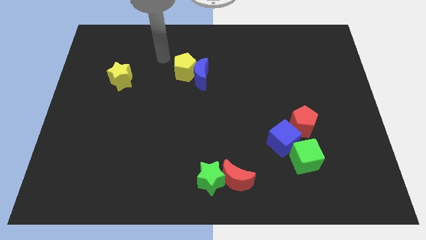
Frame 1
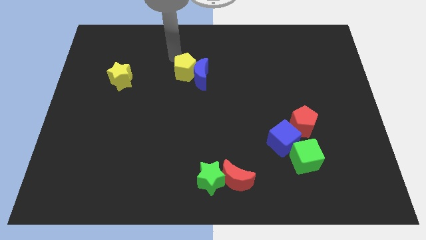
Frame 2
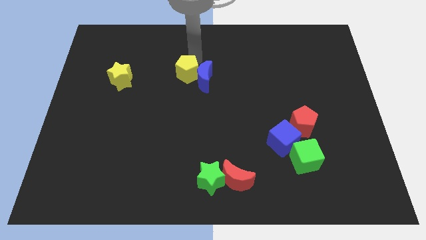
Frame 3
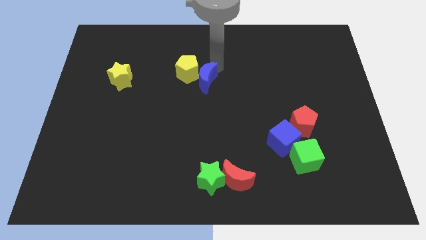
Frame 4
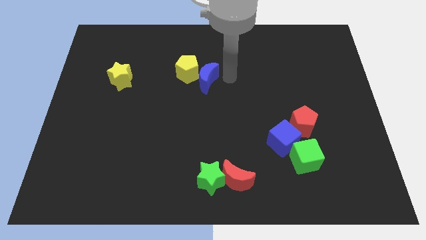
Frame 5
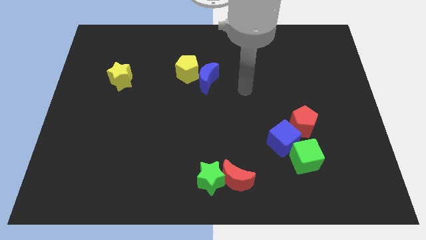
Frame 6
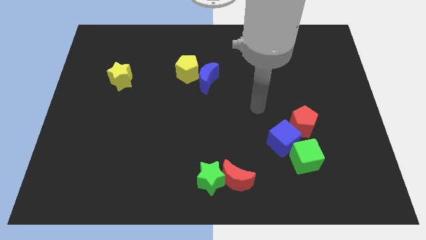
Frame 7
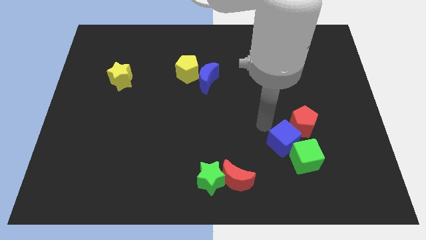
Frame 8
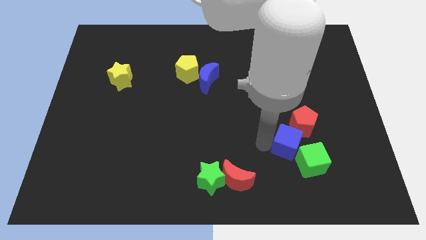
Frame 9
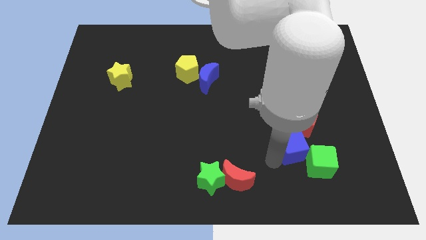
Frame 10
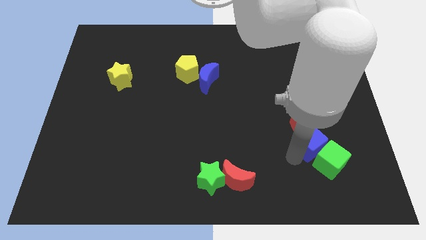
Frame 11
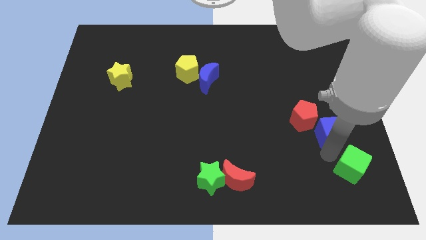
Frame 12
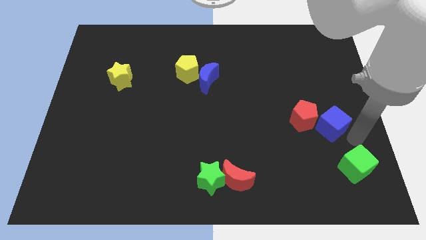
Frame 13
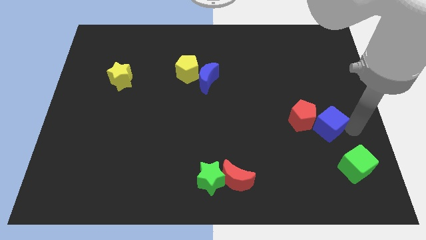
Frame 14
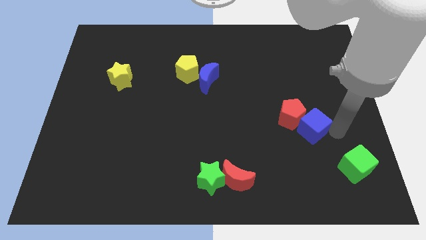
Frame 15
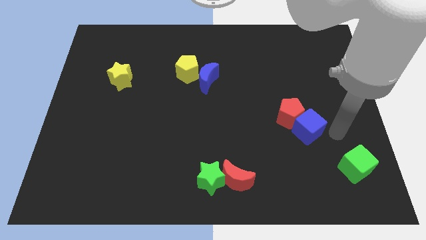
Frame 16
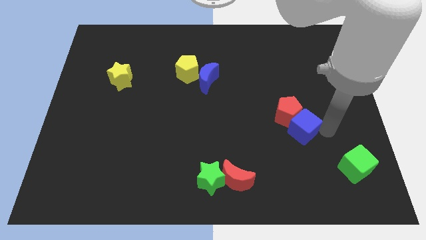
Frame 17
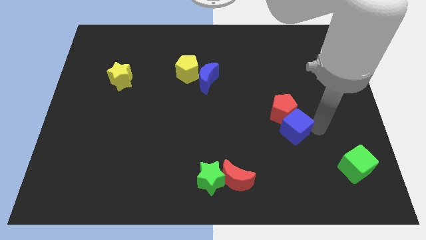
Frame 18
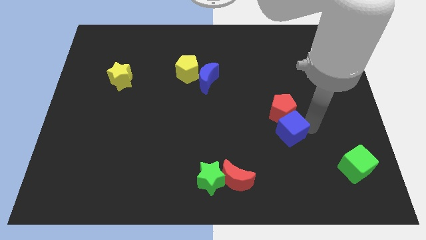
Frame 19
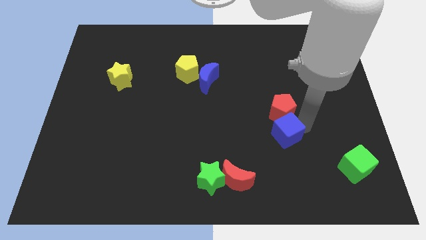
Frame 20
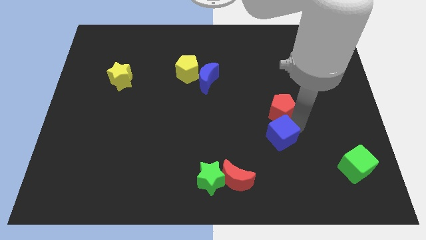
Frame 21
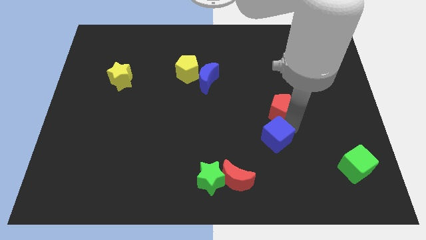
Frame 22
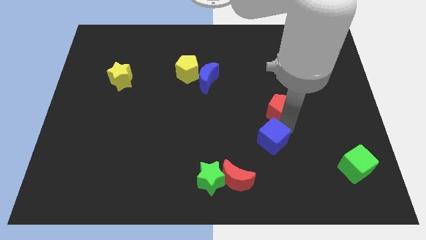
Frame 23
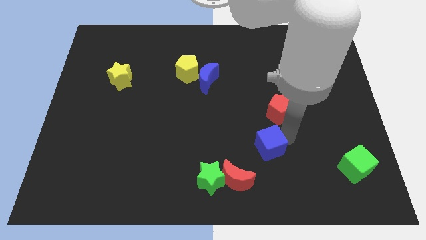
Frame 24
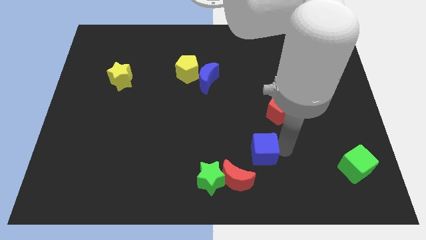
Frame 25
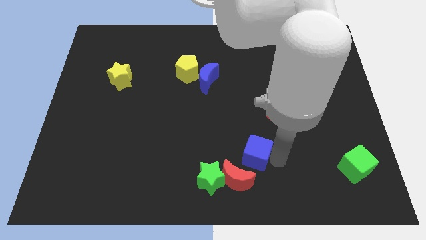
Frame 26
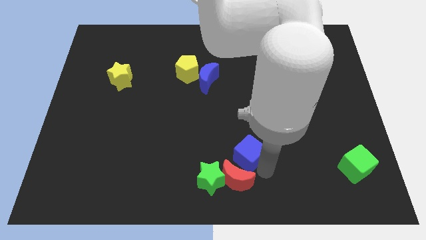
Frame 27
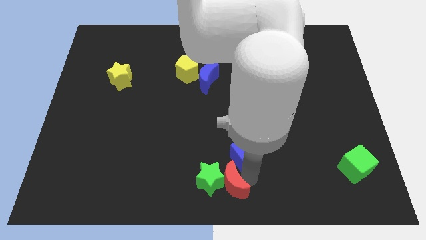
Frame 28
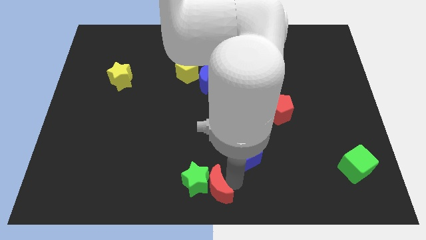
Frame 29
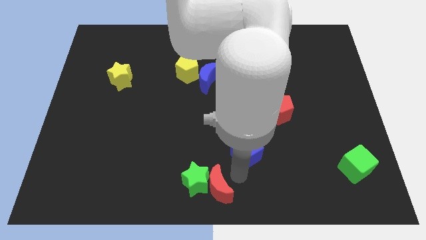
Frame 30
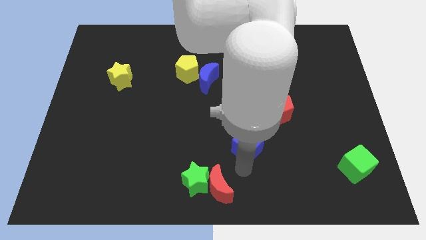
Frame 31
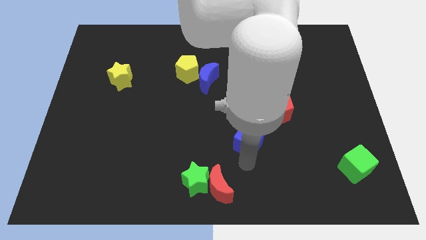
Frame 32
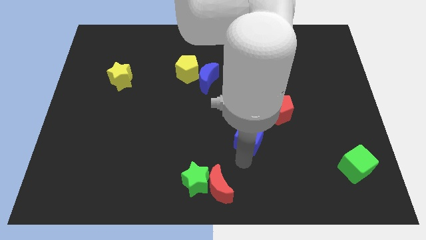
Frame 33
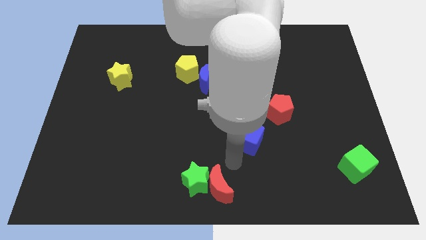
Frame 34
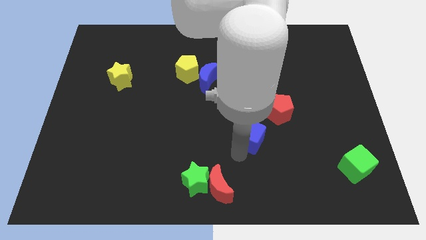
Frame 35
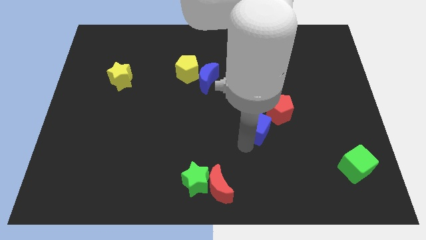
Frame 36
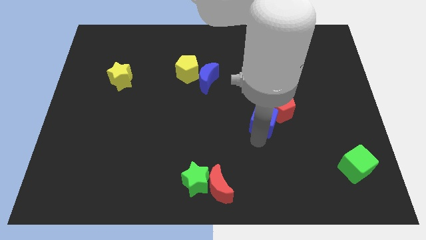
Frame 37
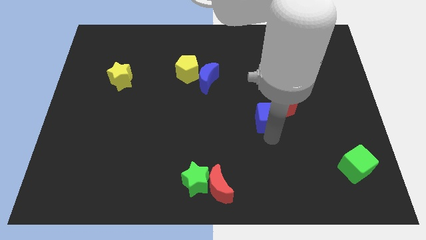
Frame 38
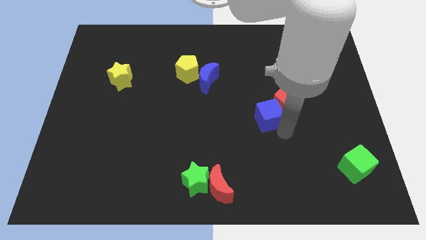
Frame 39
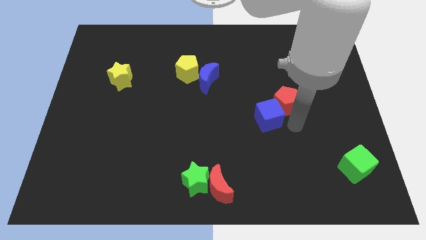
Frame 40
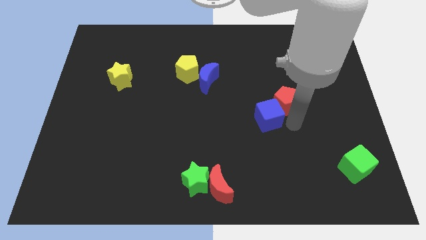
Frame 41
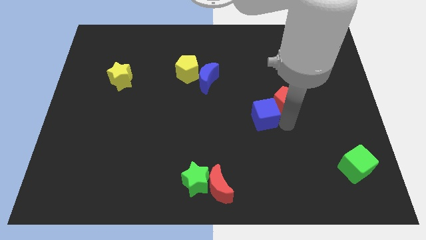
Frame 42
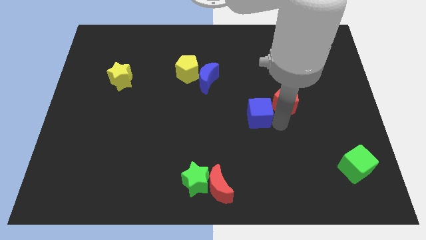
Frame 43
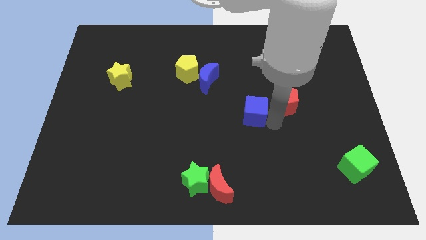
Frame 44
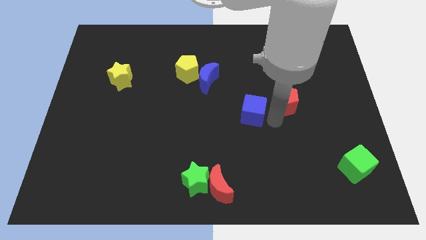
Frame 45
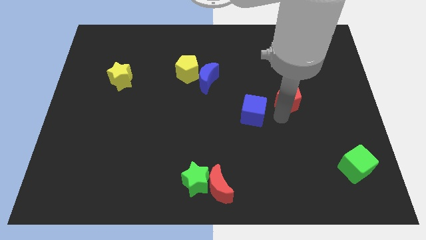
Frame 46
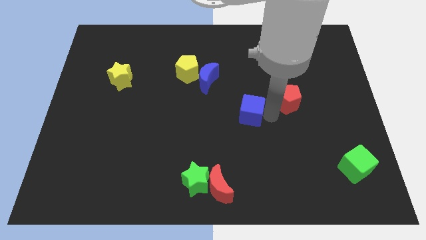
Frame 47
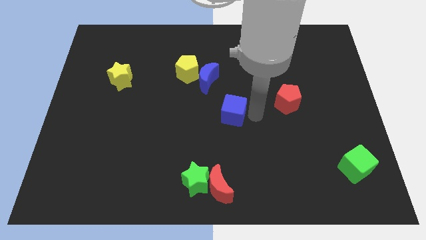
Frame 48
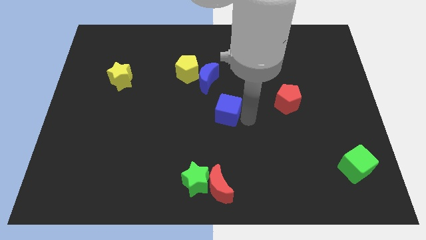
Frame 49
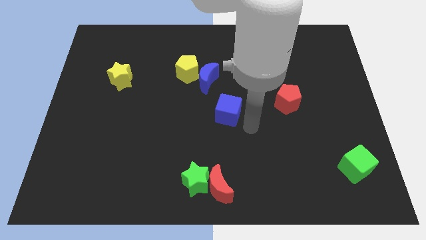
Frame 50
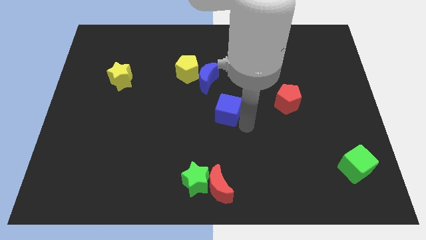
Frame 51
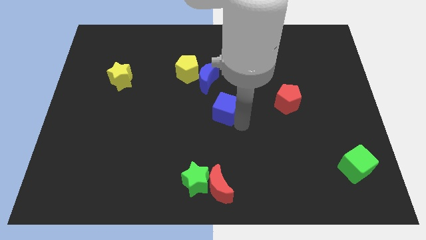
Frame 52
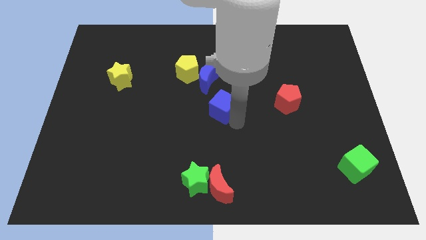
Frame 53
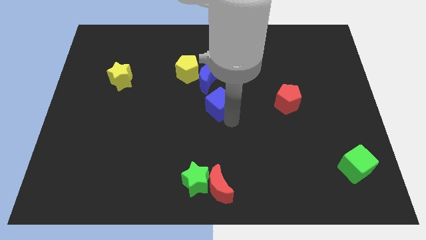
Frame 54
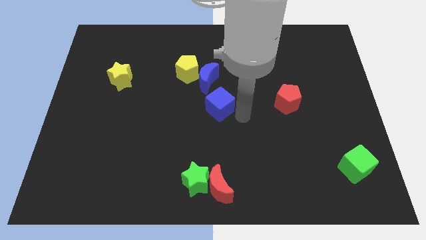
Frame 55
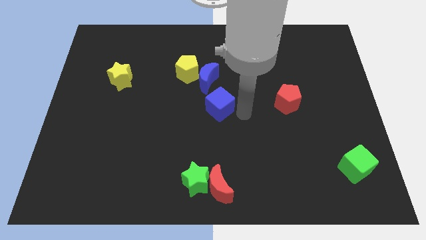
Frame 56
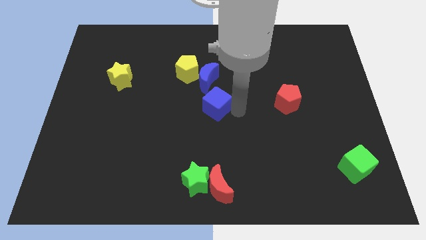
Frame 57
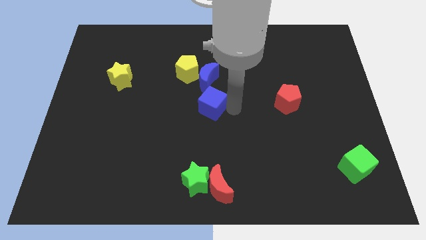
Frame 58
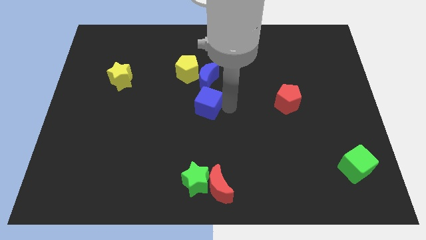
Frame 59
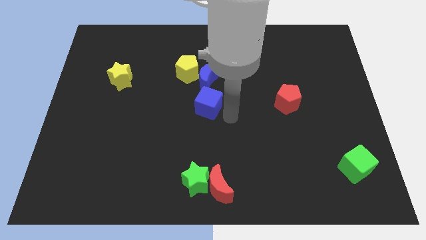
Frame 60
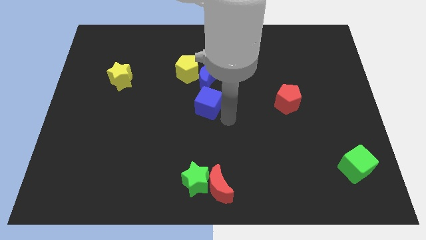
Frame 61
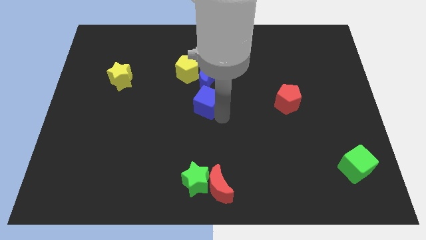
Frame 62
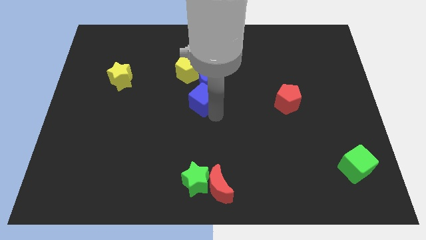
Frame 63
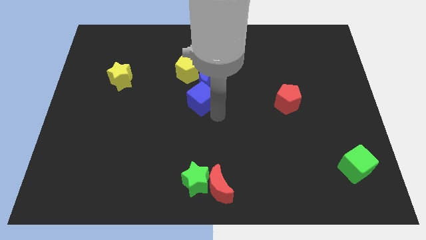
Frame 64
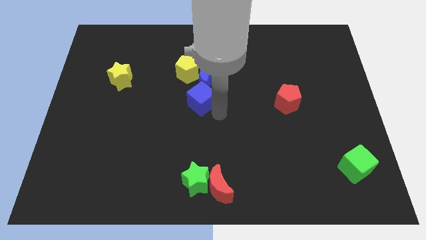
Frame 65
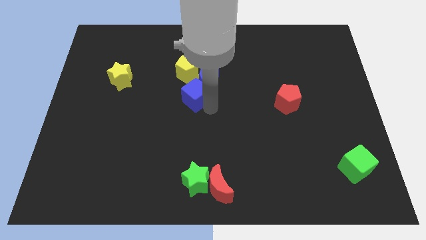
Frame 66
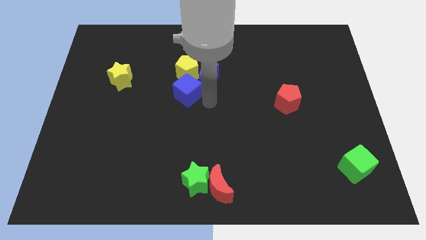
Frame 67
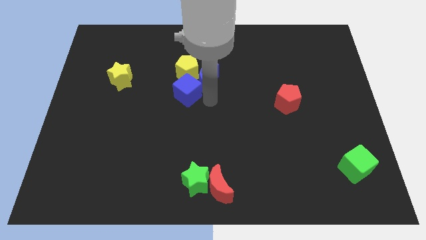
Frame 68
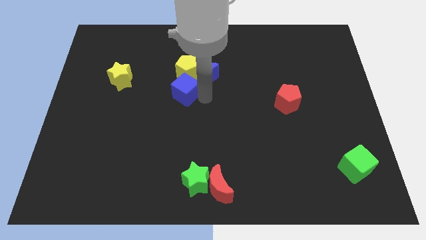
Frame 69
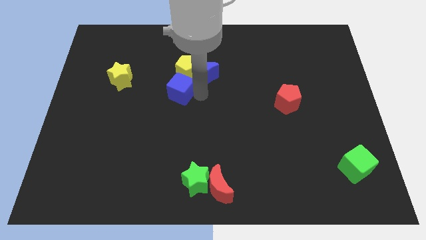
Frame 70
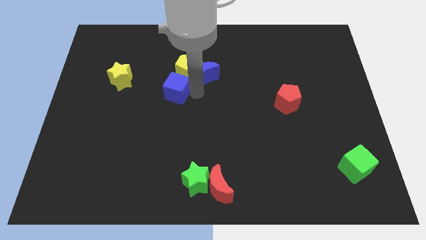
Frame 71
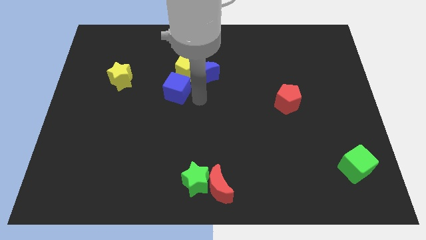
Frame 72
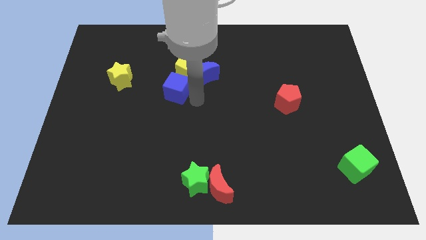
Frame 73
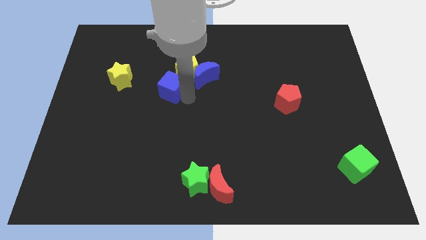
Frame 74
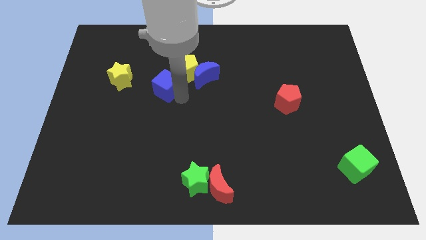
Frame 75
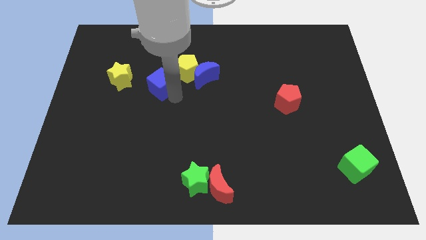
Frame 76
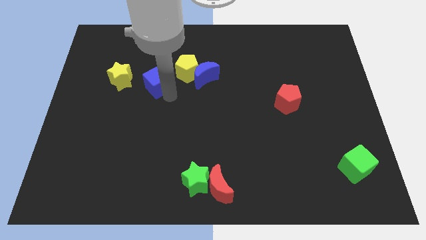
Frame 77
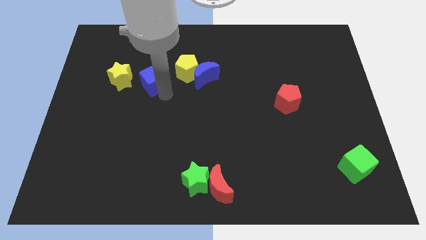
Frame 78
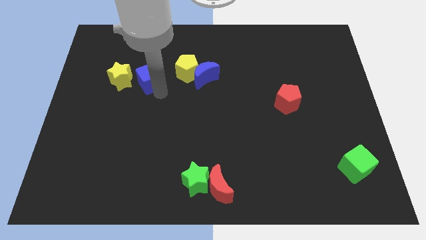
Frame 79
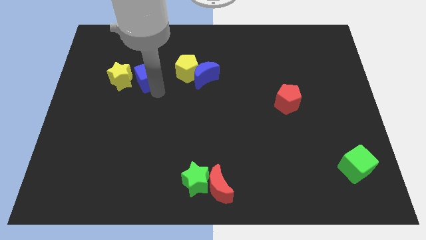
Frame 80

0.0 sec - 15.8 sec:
slide the blue cube diagonally up and to the right of the yellow star
